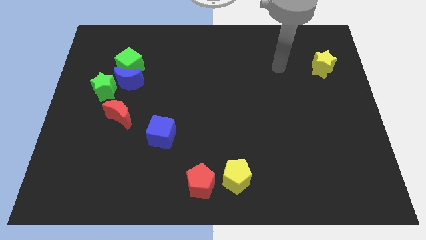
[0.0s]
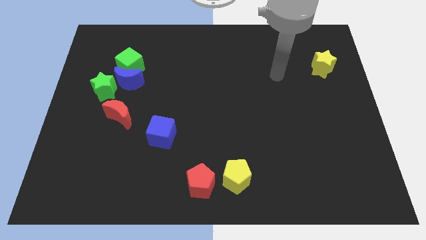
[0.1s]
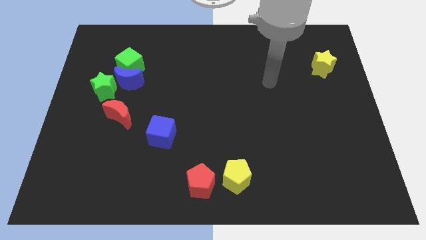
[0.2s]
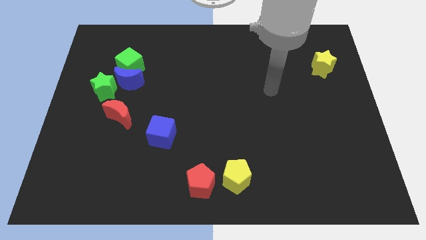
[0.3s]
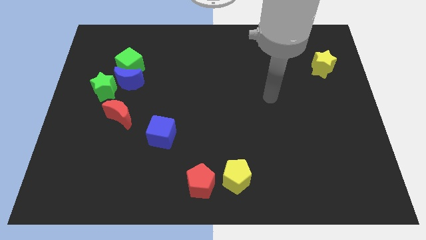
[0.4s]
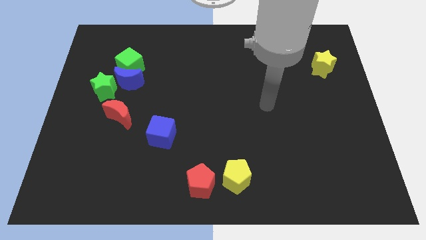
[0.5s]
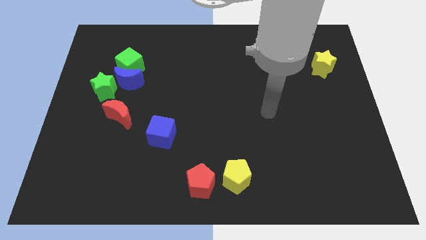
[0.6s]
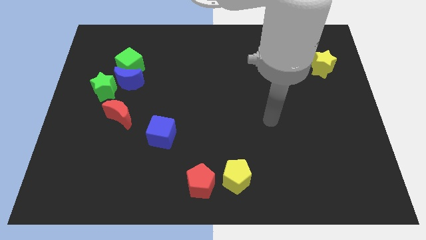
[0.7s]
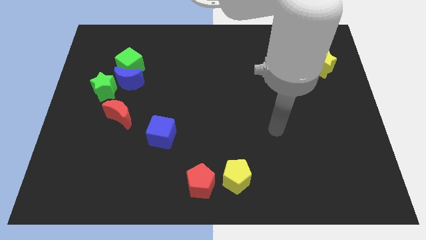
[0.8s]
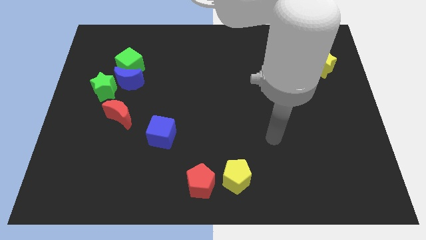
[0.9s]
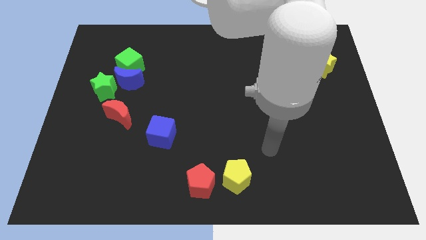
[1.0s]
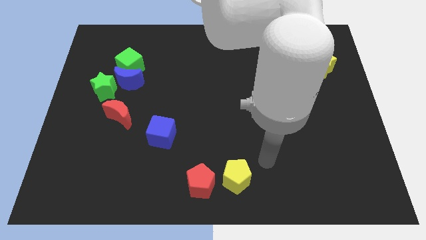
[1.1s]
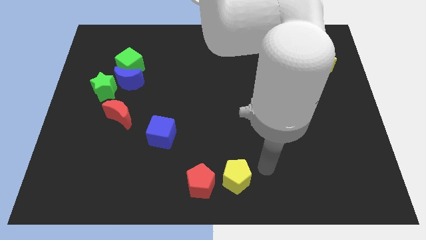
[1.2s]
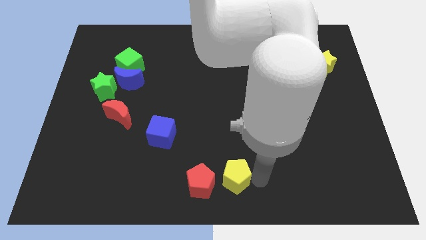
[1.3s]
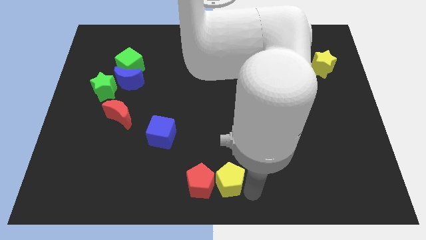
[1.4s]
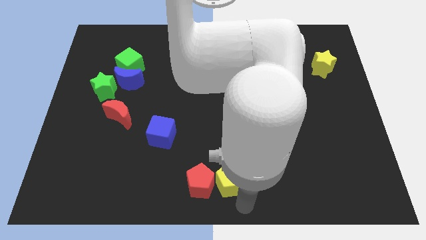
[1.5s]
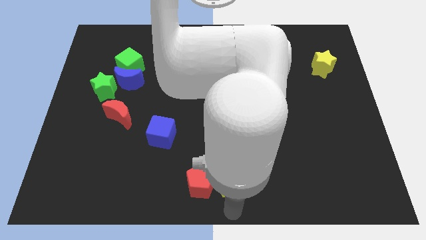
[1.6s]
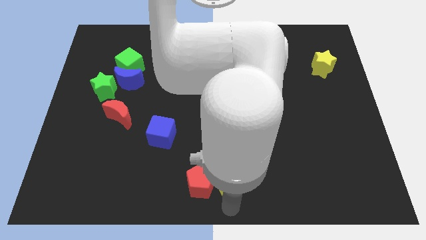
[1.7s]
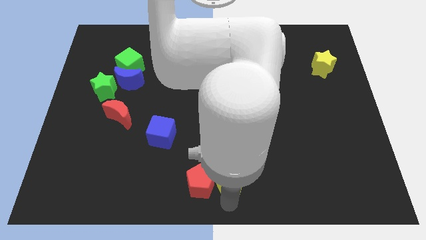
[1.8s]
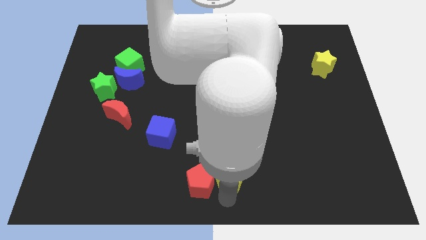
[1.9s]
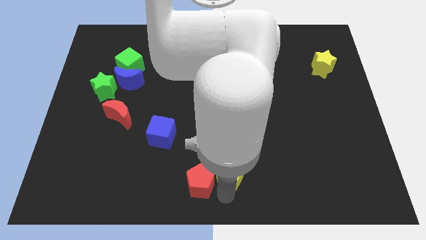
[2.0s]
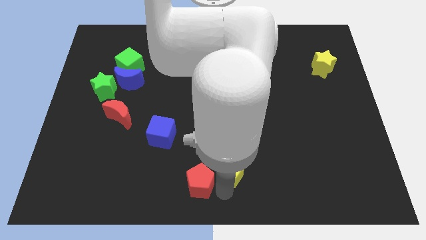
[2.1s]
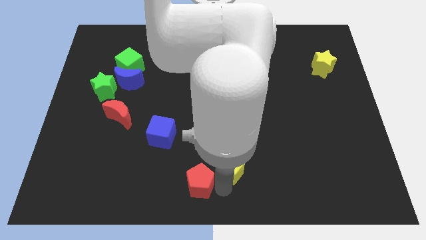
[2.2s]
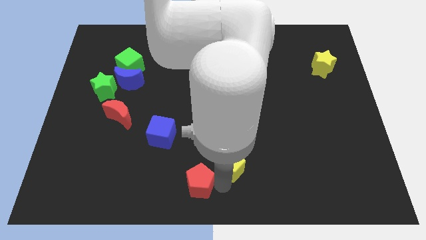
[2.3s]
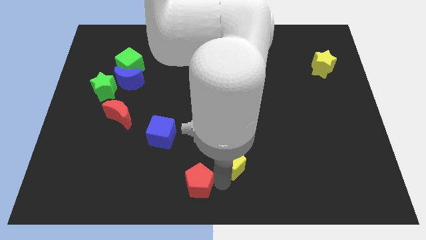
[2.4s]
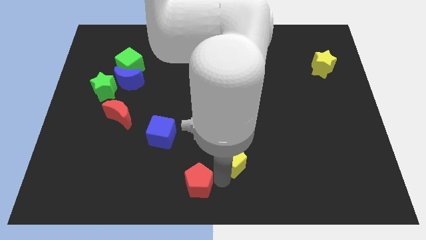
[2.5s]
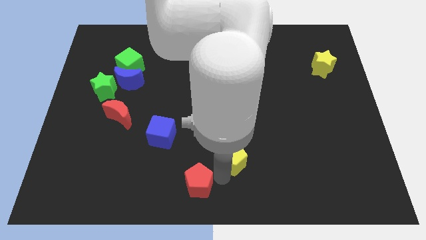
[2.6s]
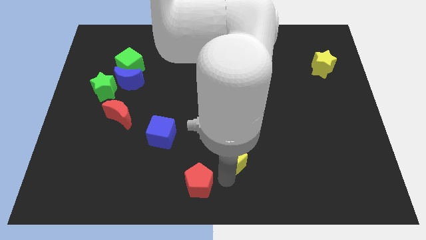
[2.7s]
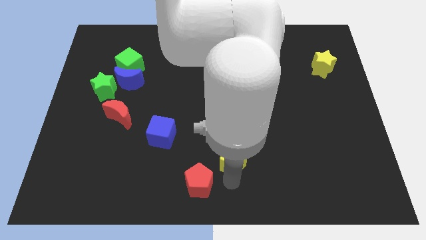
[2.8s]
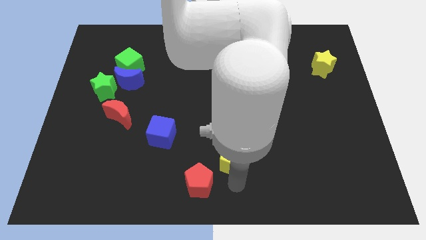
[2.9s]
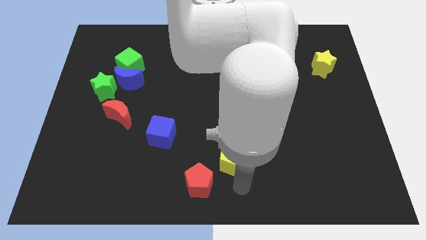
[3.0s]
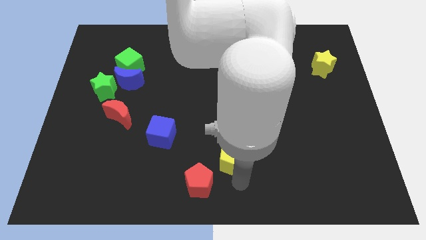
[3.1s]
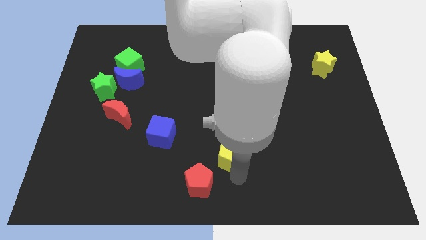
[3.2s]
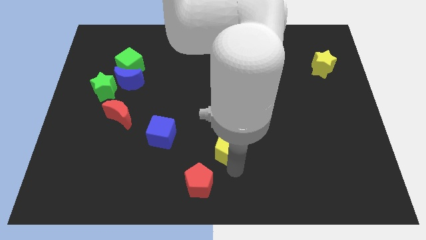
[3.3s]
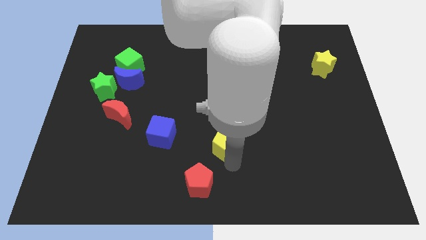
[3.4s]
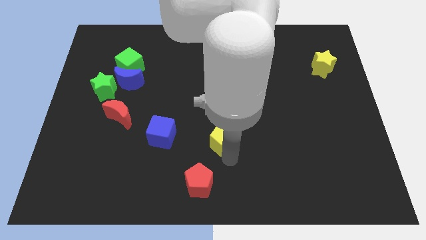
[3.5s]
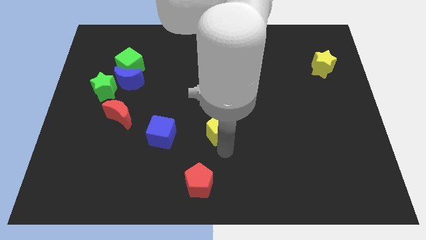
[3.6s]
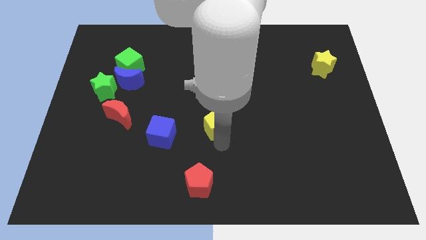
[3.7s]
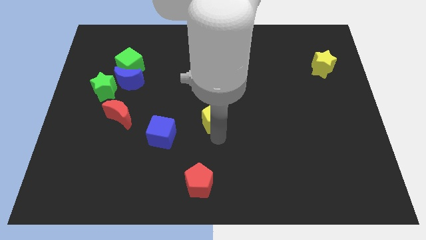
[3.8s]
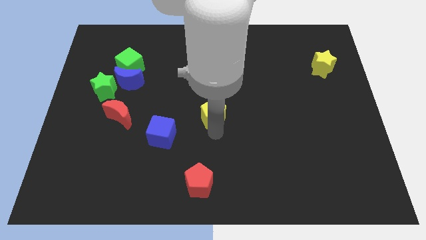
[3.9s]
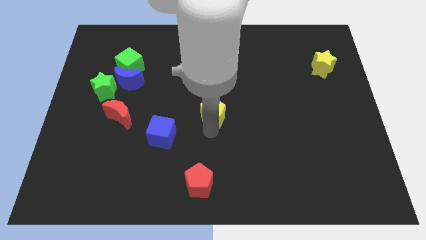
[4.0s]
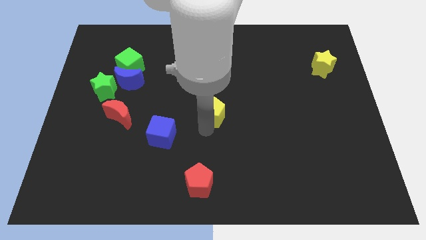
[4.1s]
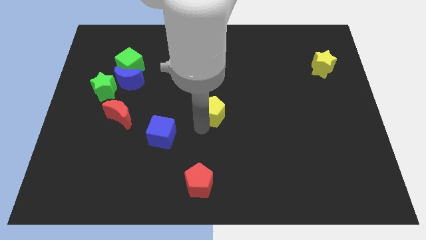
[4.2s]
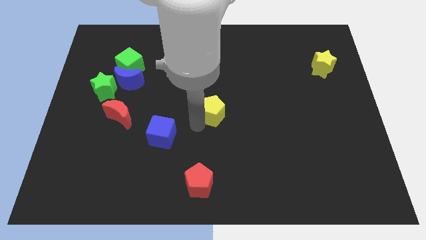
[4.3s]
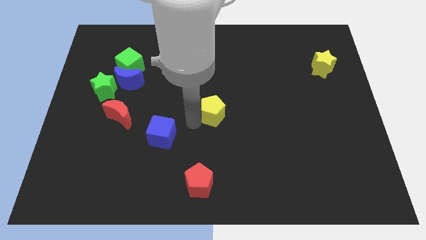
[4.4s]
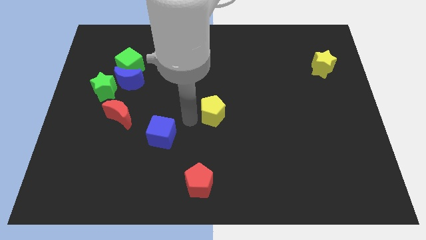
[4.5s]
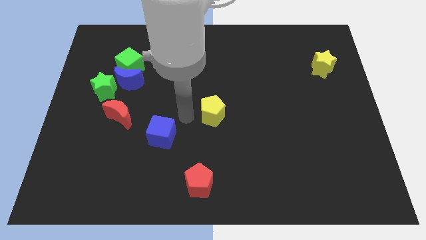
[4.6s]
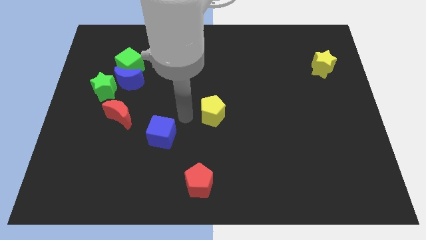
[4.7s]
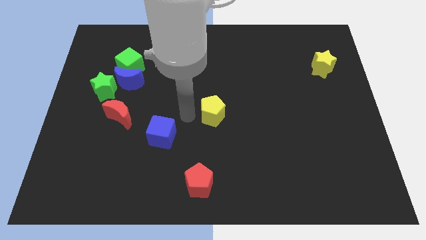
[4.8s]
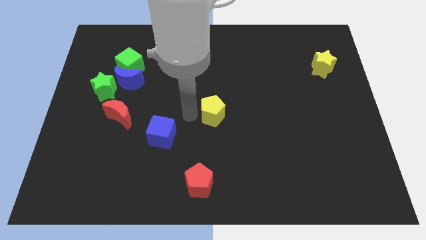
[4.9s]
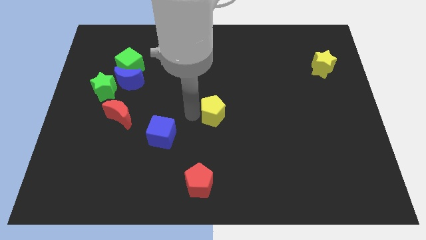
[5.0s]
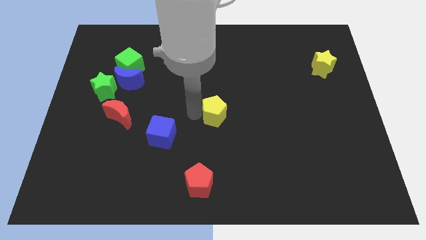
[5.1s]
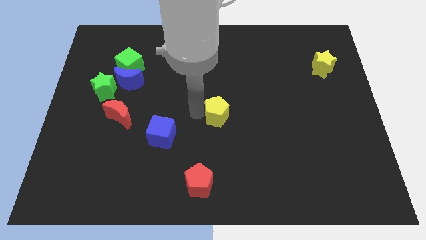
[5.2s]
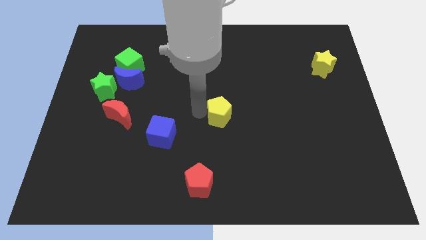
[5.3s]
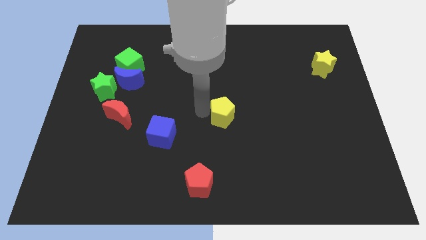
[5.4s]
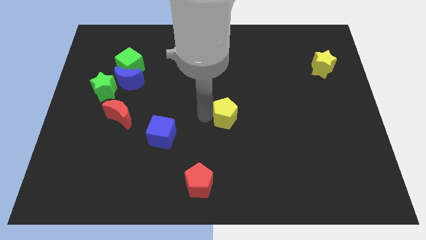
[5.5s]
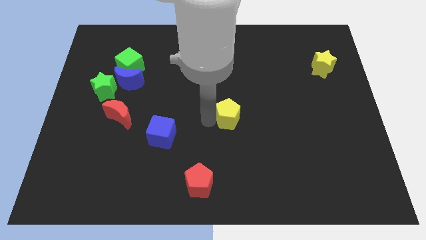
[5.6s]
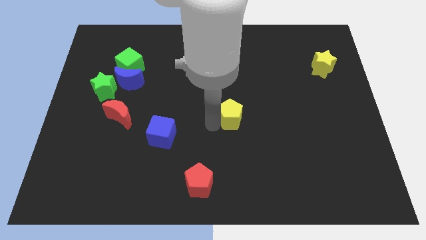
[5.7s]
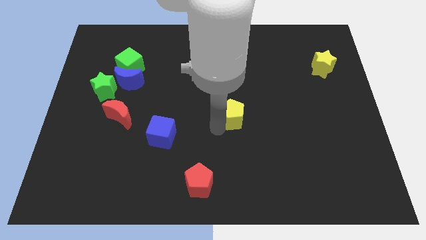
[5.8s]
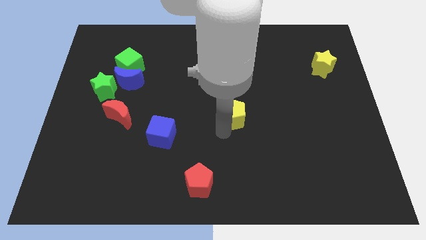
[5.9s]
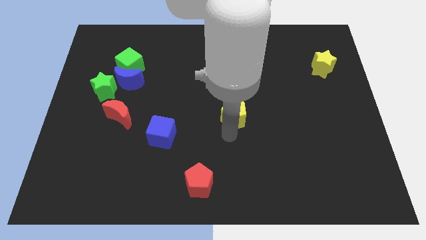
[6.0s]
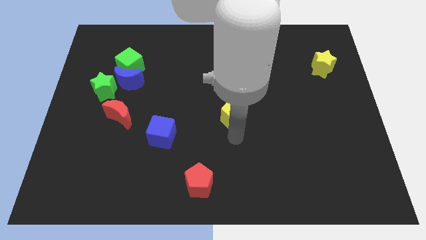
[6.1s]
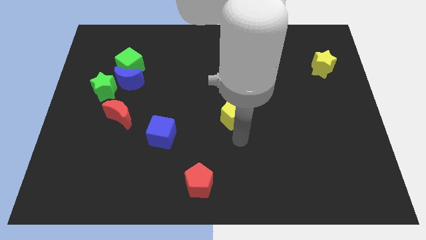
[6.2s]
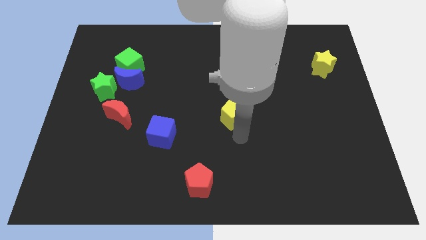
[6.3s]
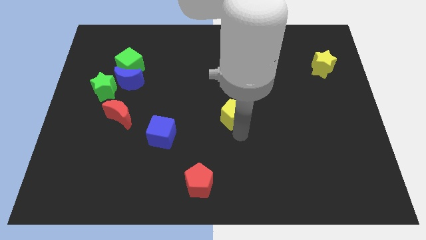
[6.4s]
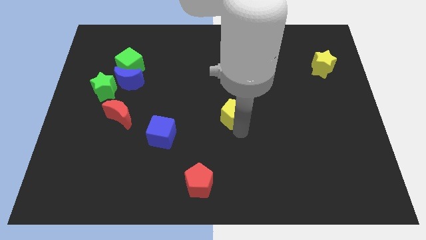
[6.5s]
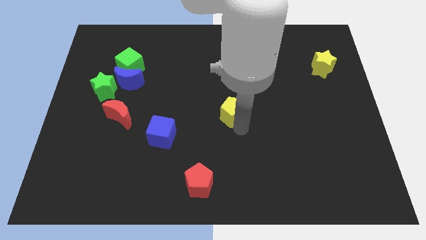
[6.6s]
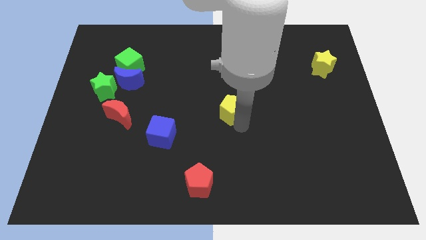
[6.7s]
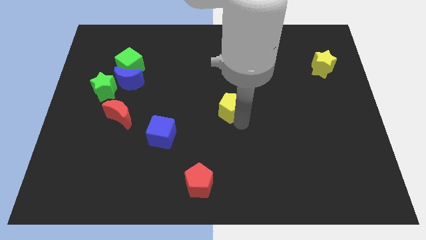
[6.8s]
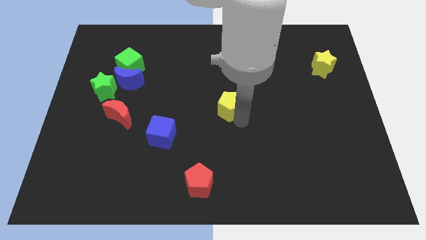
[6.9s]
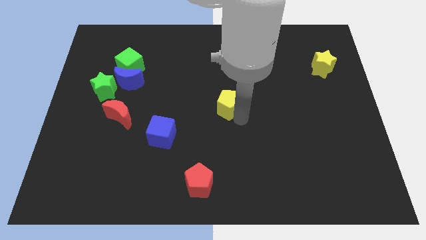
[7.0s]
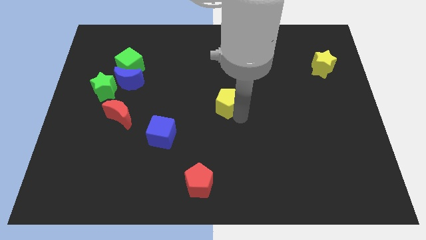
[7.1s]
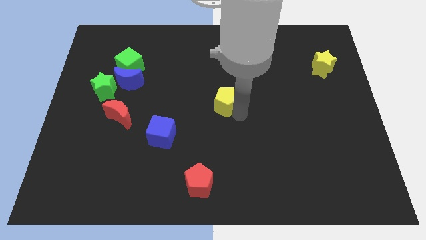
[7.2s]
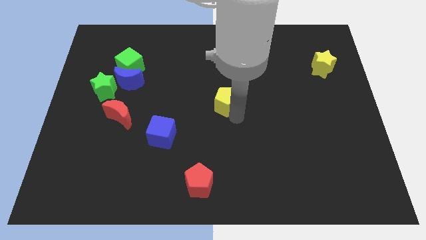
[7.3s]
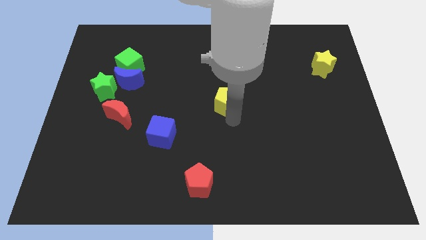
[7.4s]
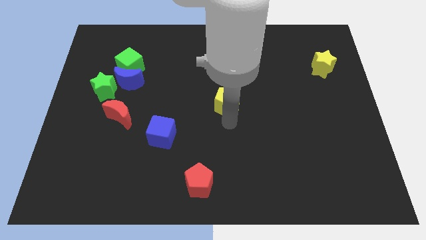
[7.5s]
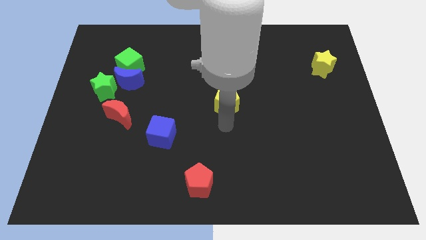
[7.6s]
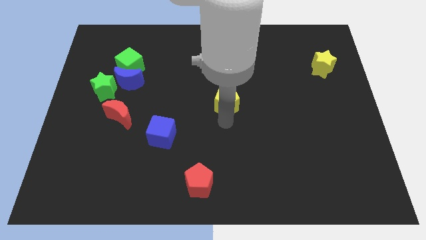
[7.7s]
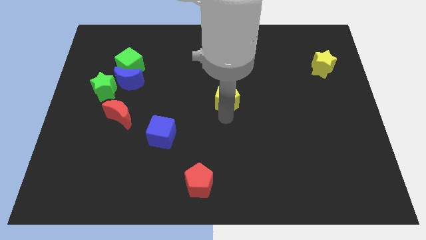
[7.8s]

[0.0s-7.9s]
slide the yellow pentagon up

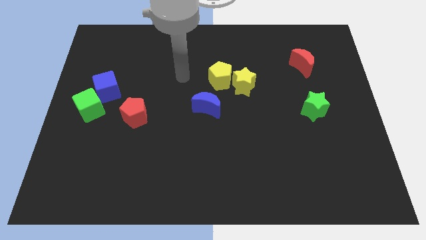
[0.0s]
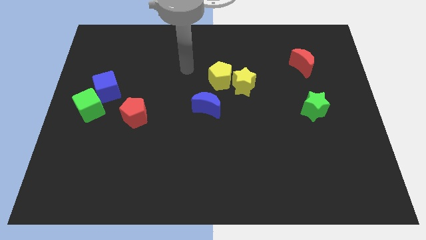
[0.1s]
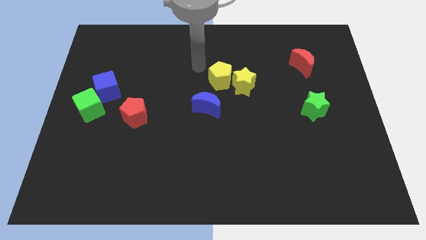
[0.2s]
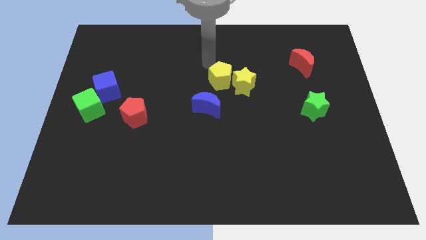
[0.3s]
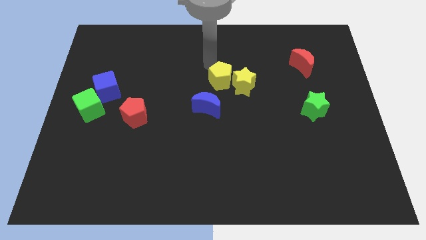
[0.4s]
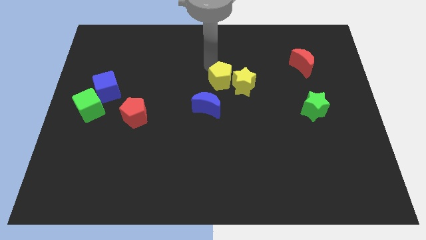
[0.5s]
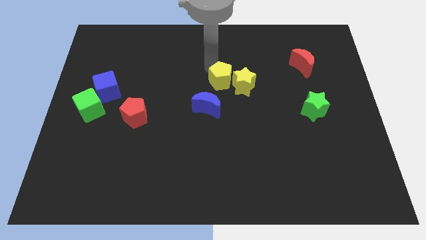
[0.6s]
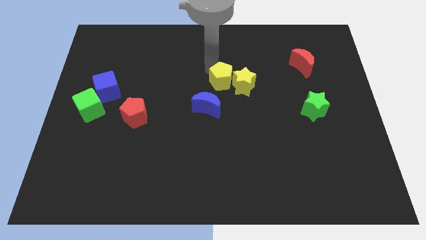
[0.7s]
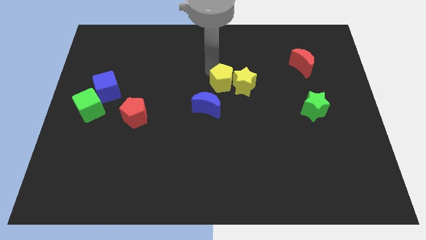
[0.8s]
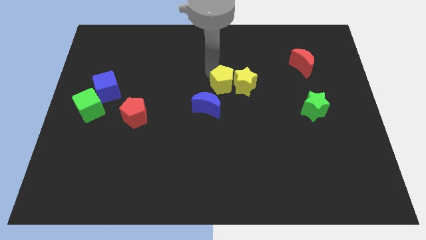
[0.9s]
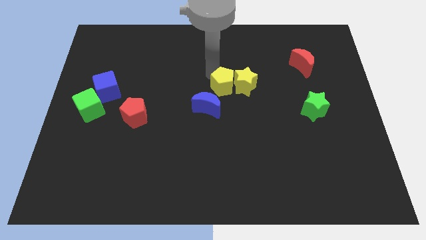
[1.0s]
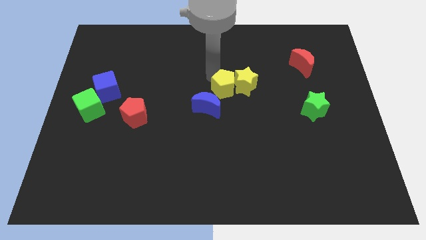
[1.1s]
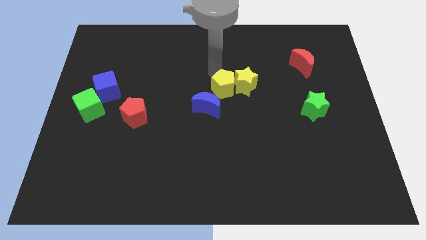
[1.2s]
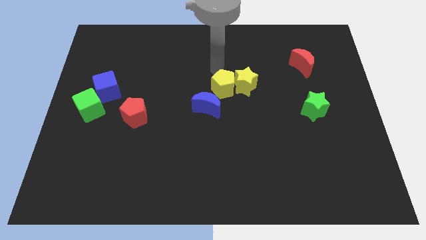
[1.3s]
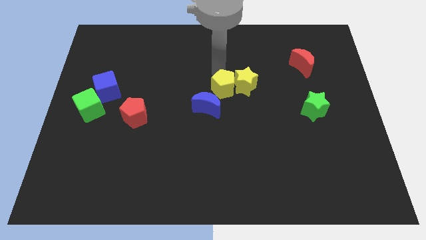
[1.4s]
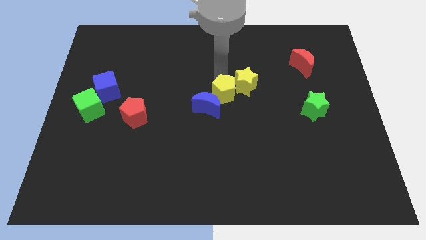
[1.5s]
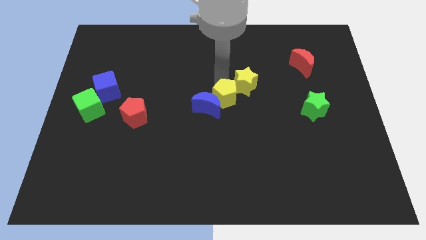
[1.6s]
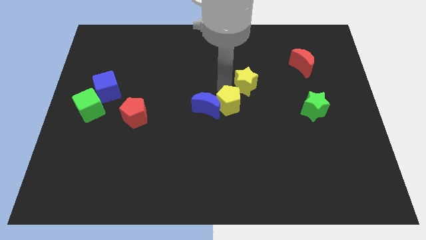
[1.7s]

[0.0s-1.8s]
slide the yellow pentagon down somewhat
